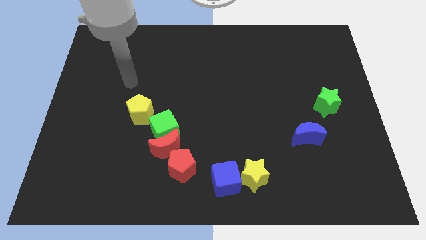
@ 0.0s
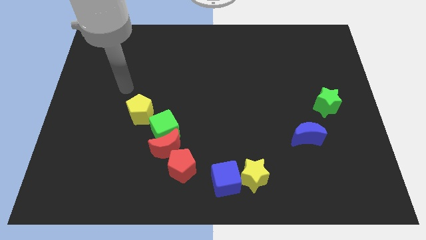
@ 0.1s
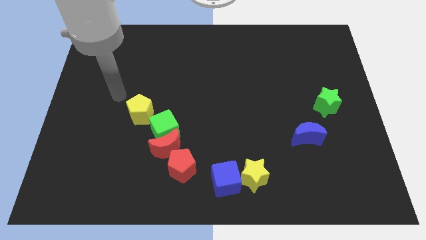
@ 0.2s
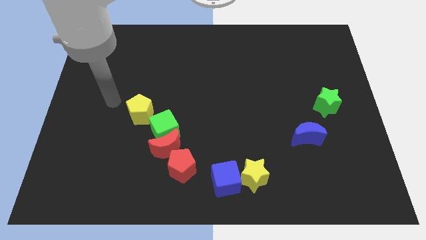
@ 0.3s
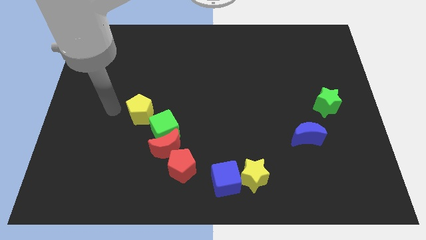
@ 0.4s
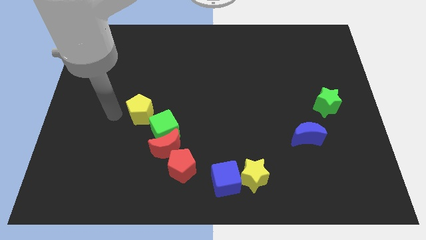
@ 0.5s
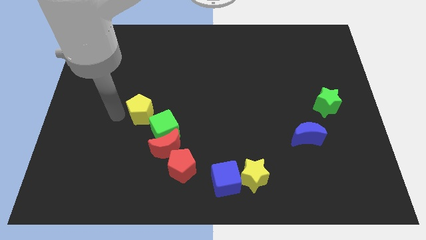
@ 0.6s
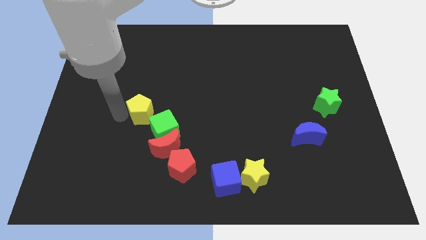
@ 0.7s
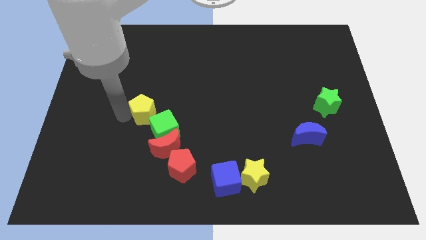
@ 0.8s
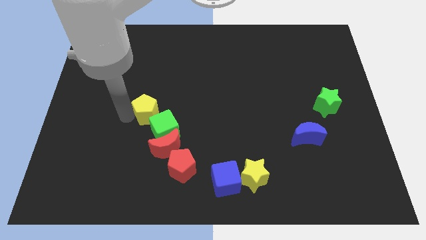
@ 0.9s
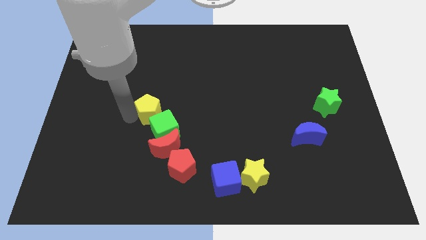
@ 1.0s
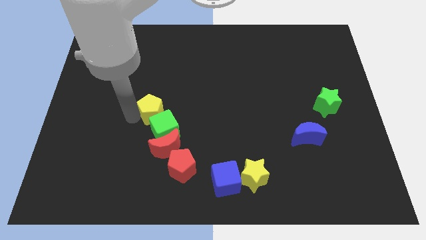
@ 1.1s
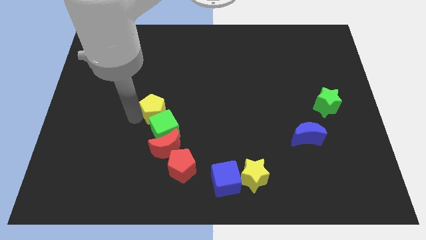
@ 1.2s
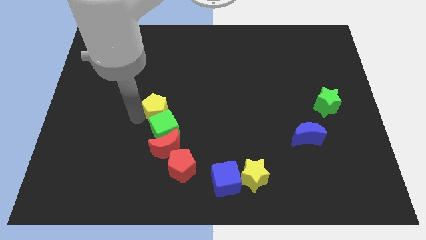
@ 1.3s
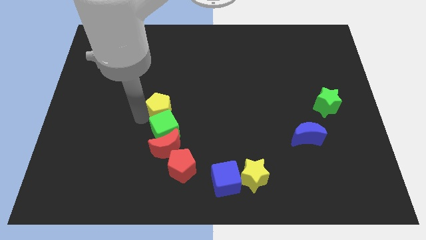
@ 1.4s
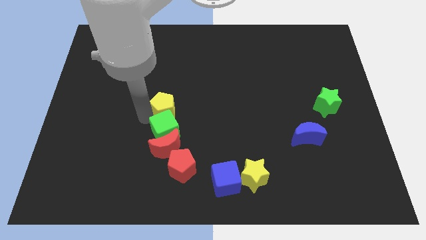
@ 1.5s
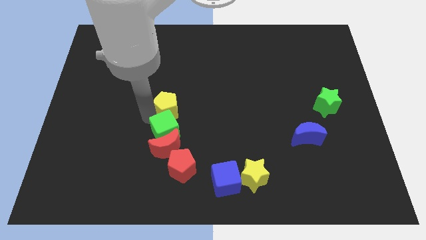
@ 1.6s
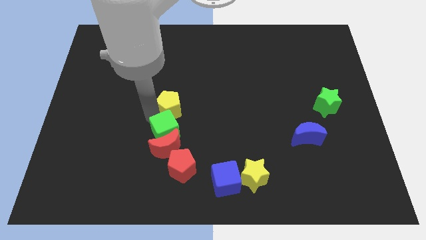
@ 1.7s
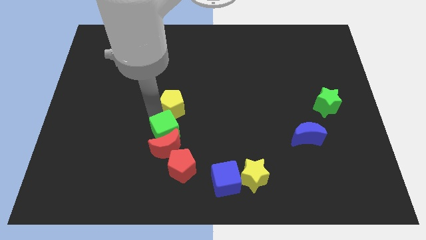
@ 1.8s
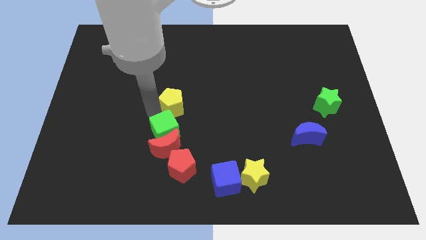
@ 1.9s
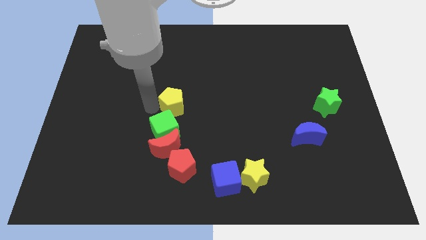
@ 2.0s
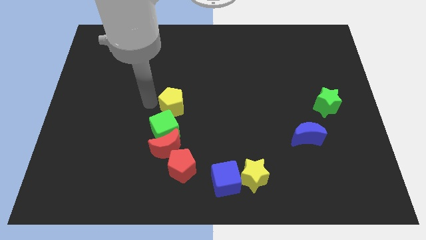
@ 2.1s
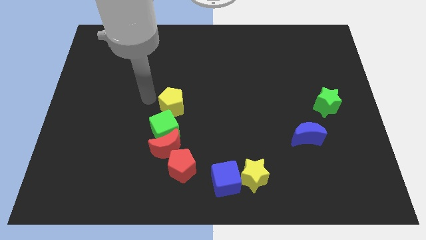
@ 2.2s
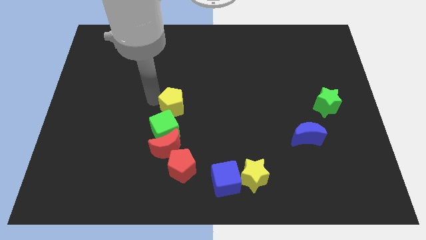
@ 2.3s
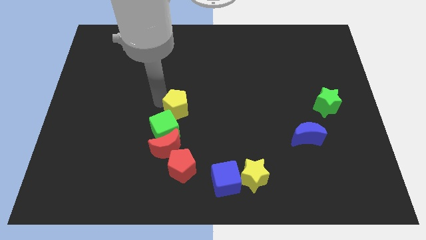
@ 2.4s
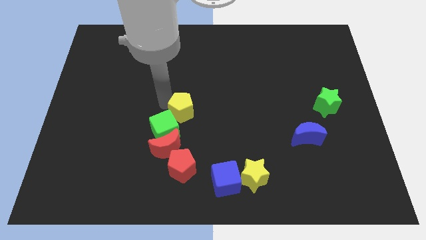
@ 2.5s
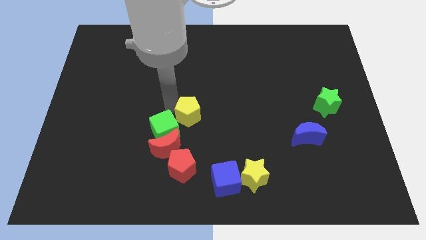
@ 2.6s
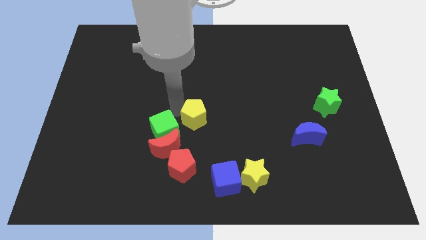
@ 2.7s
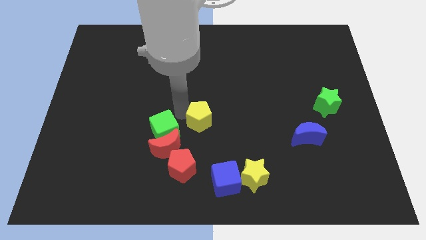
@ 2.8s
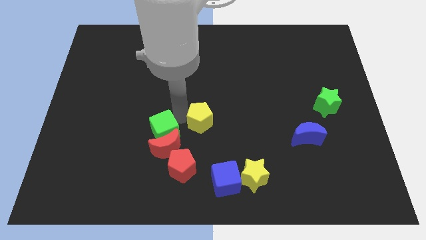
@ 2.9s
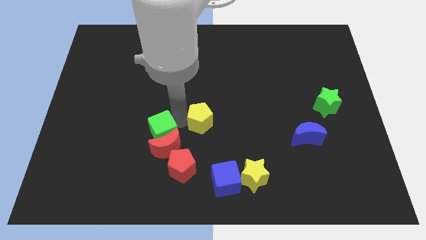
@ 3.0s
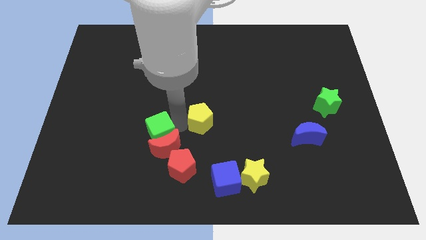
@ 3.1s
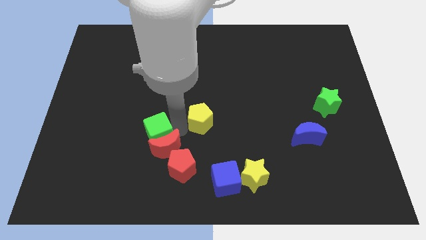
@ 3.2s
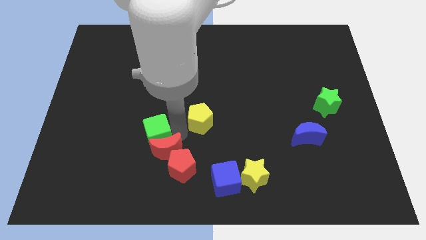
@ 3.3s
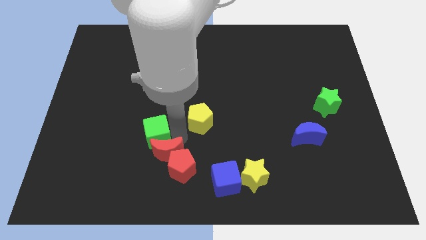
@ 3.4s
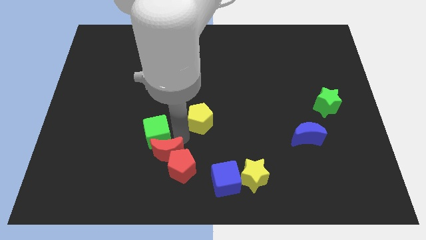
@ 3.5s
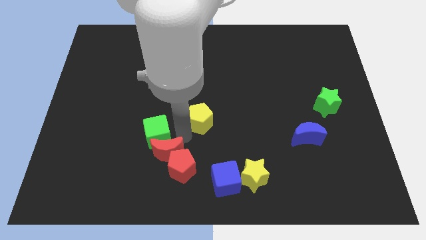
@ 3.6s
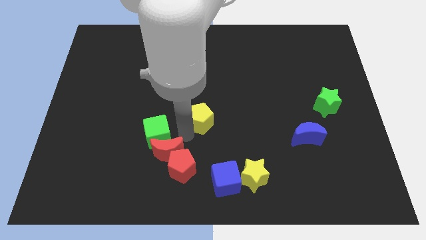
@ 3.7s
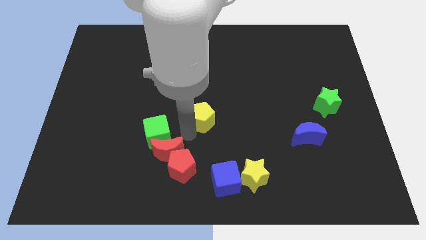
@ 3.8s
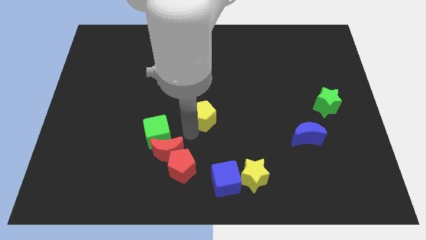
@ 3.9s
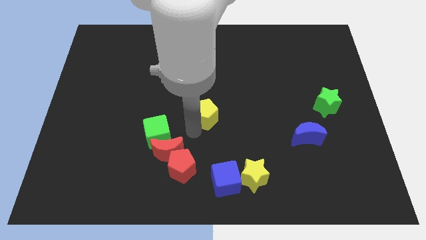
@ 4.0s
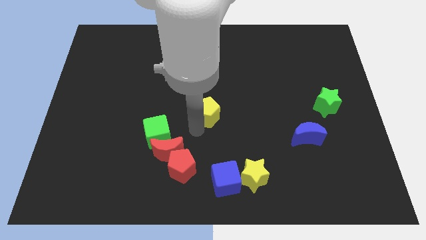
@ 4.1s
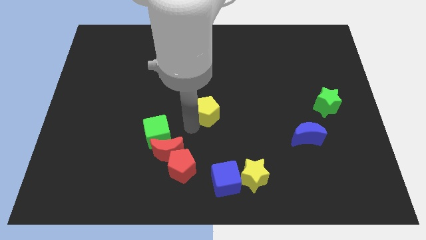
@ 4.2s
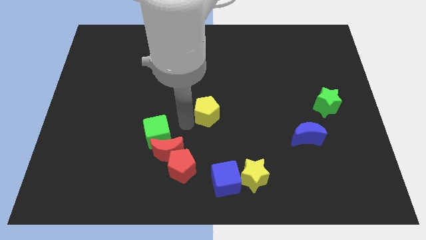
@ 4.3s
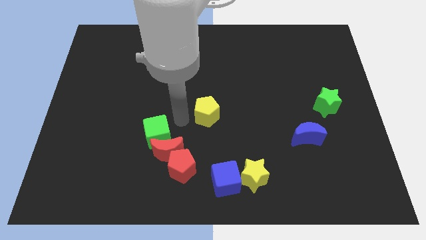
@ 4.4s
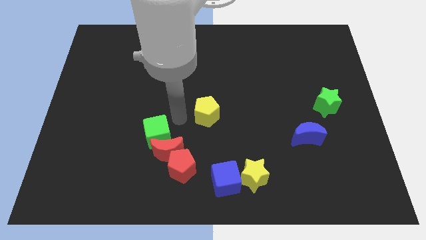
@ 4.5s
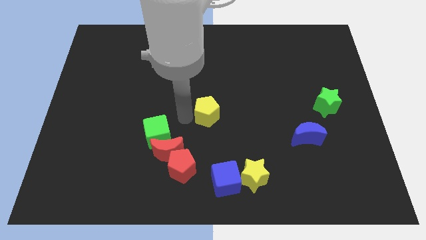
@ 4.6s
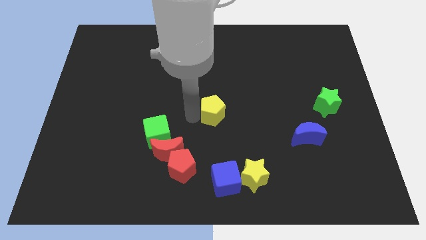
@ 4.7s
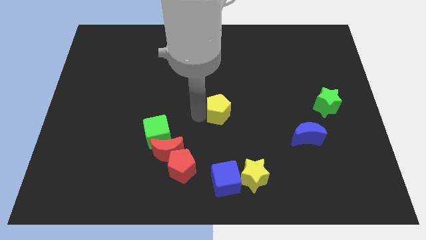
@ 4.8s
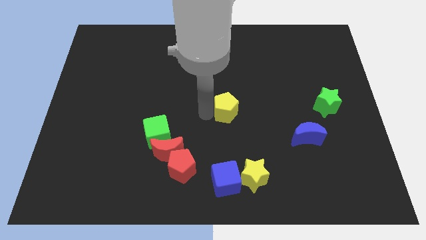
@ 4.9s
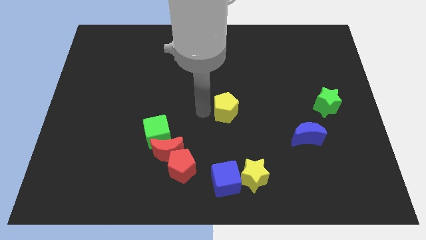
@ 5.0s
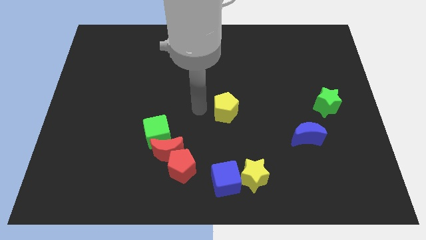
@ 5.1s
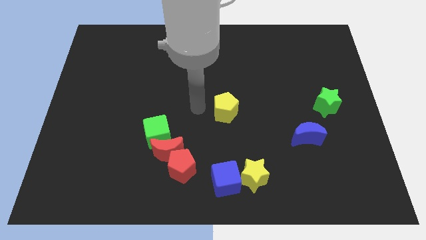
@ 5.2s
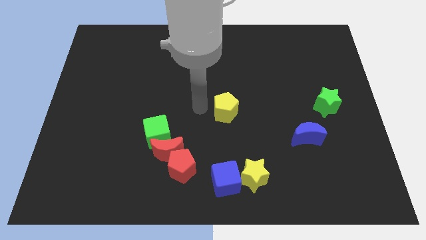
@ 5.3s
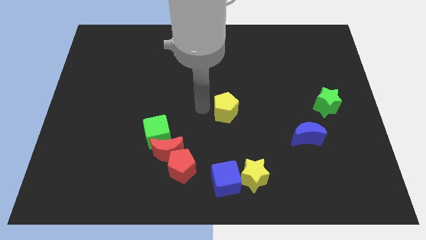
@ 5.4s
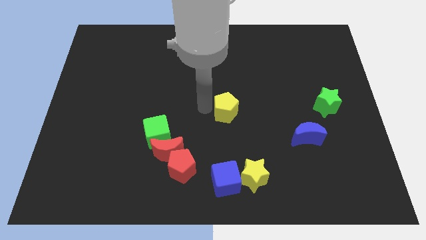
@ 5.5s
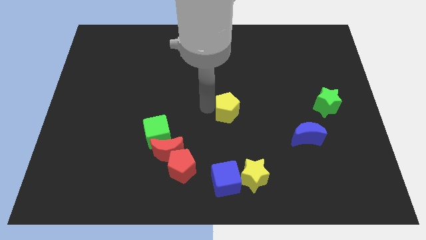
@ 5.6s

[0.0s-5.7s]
slide the yellow pentagon right

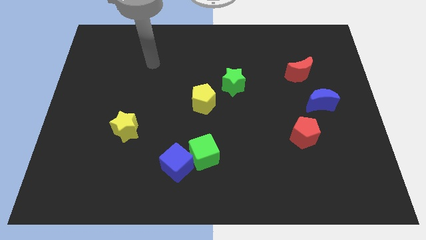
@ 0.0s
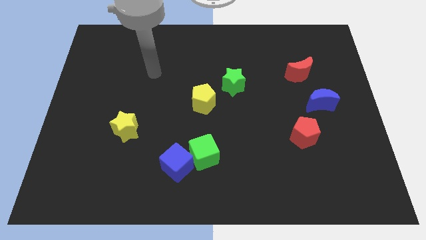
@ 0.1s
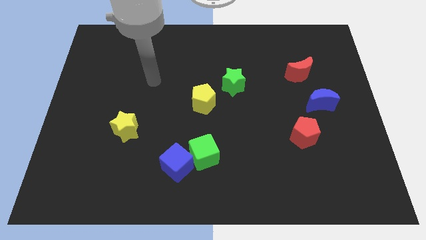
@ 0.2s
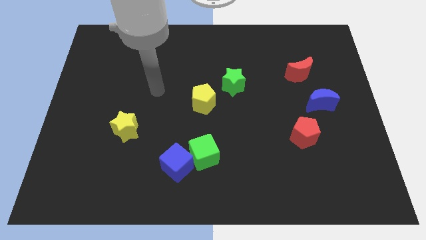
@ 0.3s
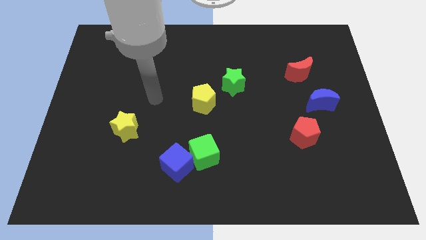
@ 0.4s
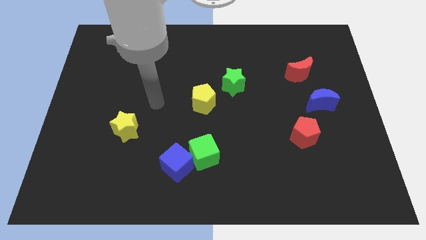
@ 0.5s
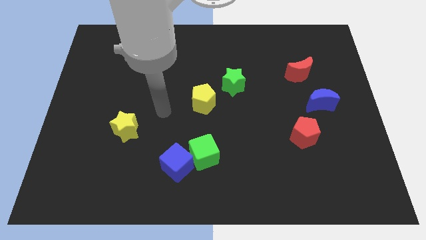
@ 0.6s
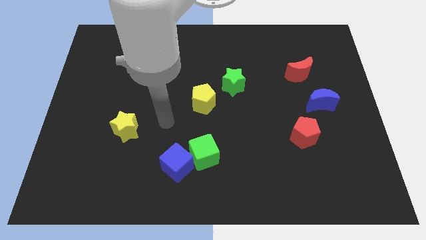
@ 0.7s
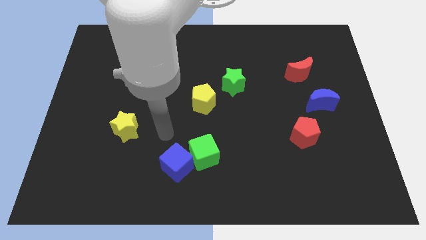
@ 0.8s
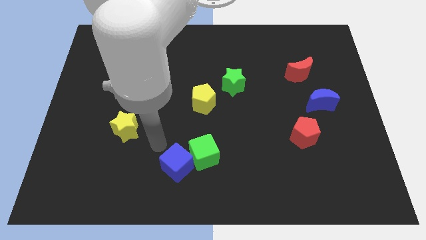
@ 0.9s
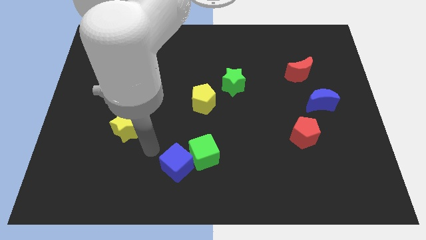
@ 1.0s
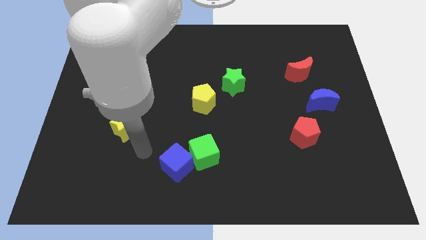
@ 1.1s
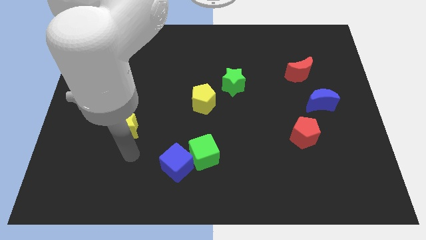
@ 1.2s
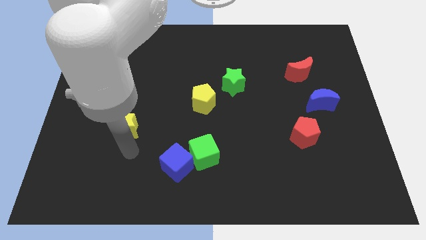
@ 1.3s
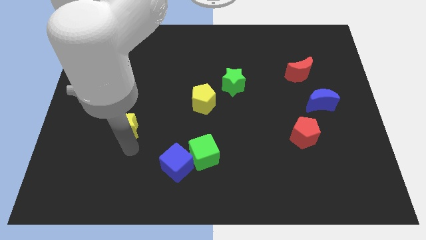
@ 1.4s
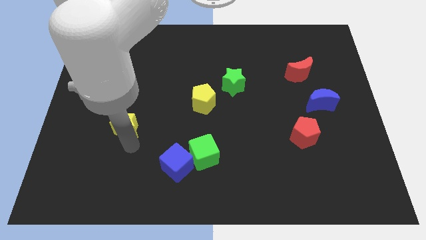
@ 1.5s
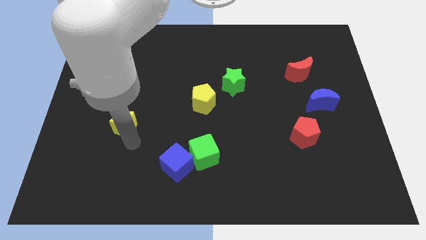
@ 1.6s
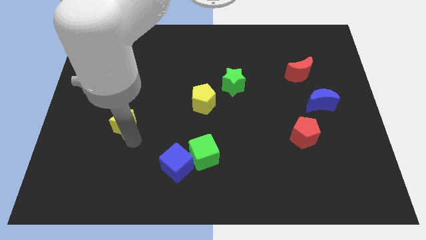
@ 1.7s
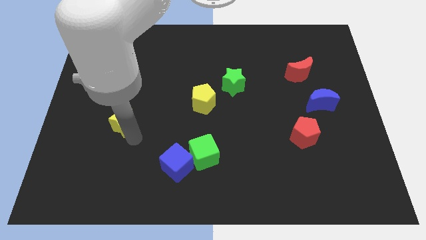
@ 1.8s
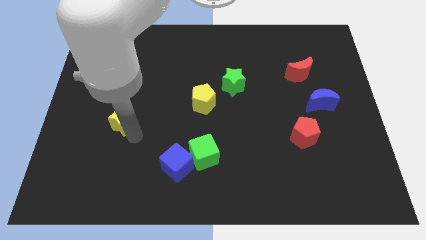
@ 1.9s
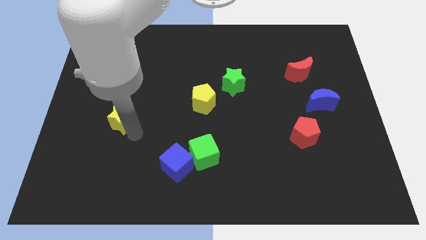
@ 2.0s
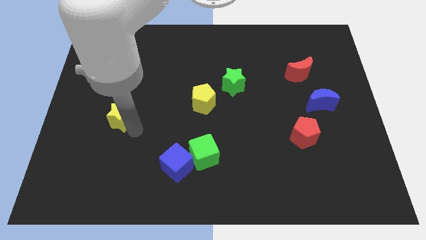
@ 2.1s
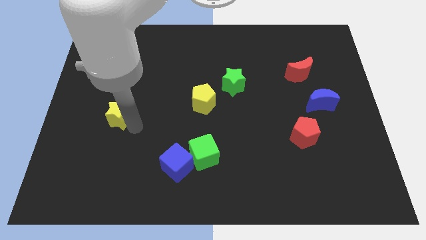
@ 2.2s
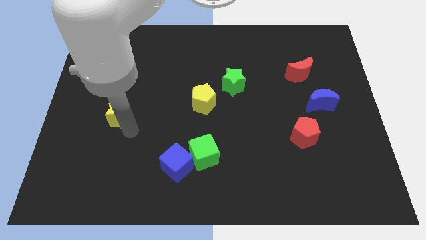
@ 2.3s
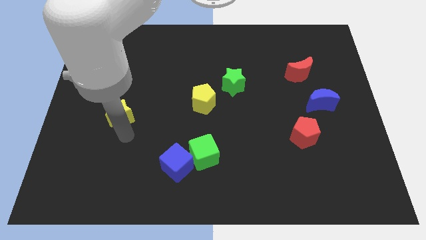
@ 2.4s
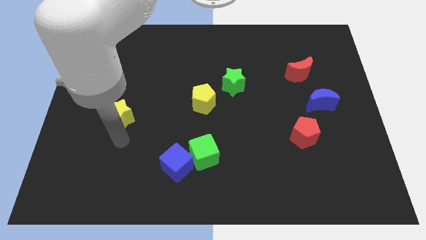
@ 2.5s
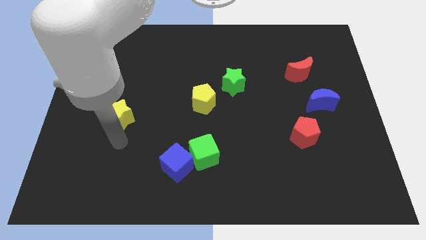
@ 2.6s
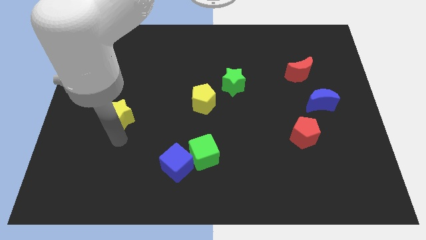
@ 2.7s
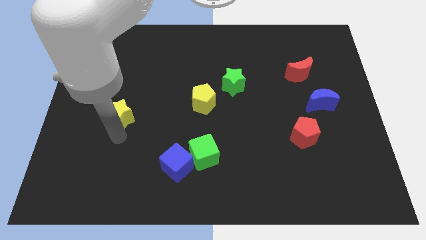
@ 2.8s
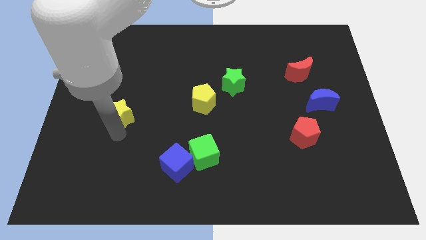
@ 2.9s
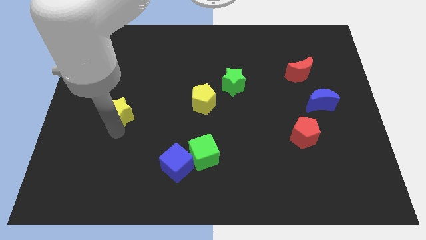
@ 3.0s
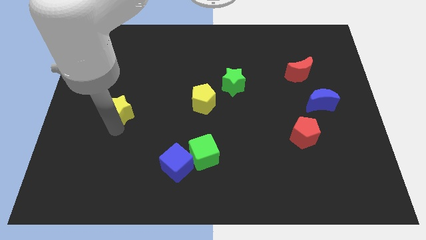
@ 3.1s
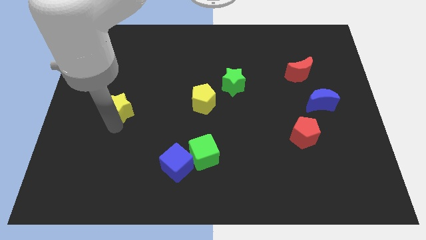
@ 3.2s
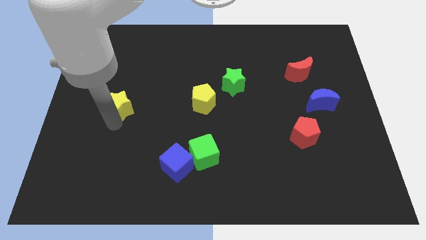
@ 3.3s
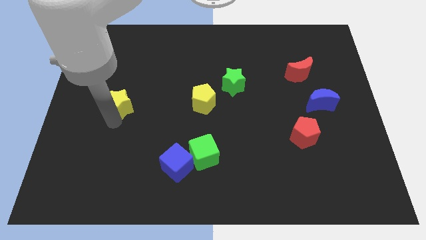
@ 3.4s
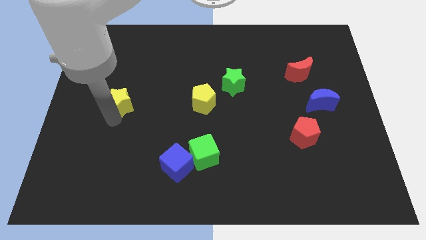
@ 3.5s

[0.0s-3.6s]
push the yellow star a little up
